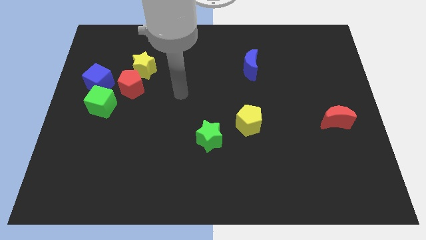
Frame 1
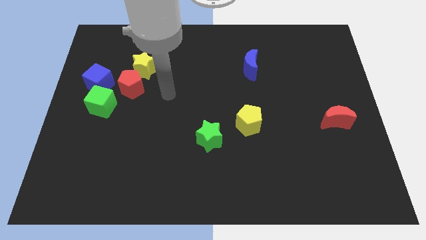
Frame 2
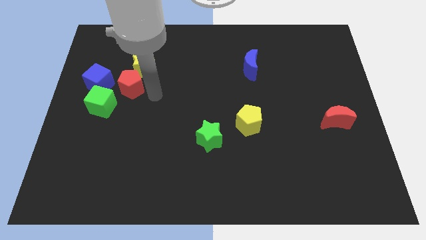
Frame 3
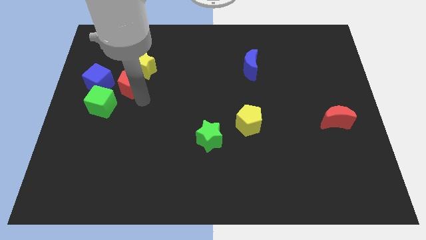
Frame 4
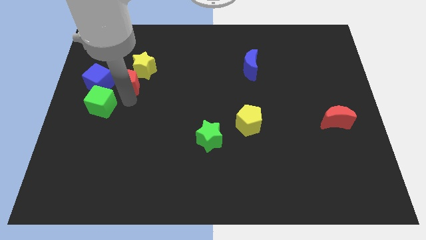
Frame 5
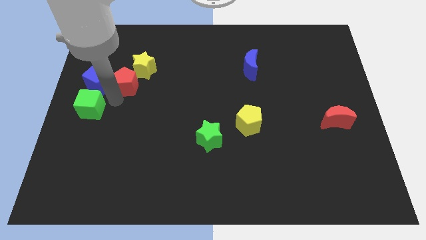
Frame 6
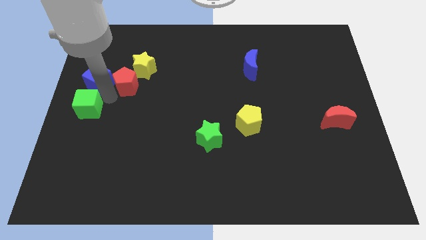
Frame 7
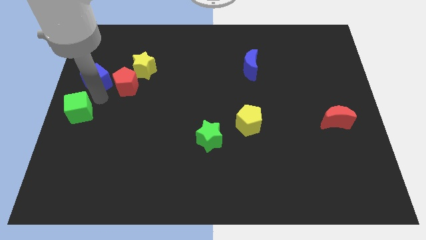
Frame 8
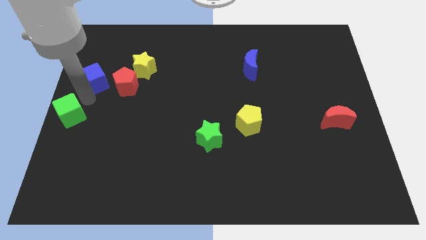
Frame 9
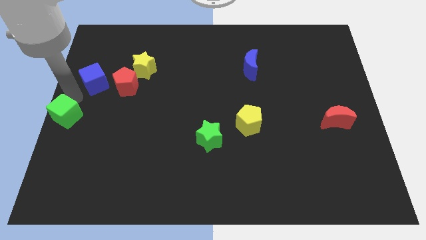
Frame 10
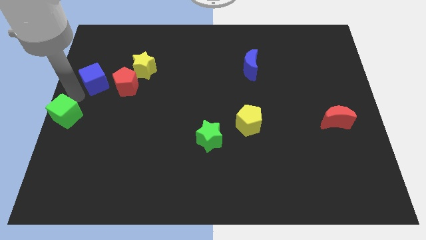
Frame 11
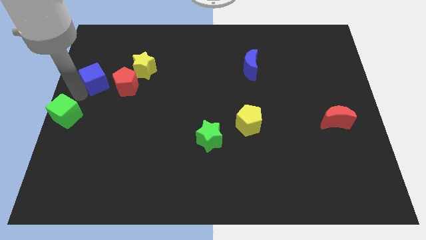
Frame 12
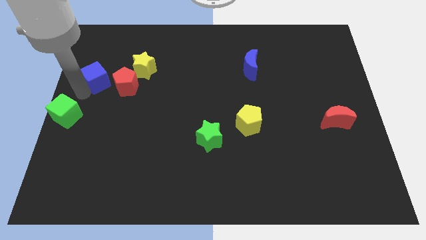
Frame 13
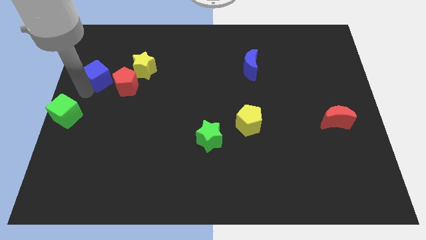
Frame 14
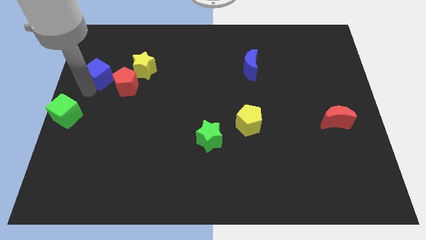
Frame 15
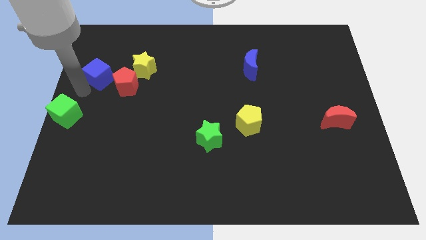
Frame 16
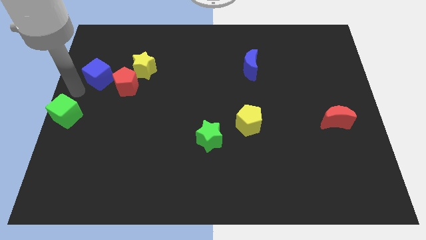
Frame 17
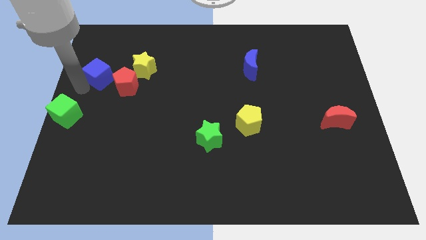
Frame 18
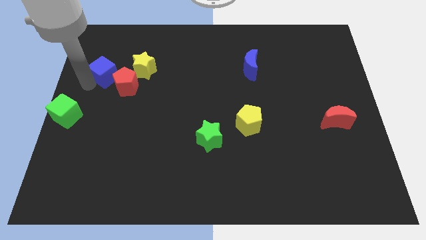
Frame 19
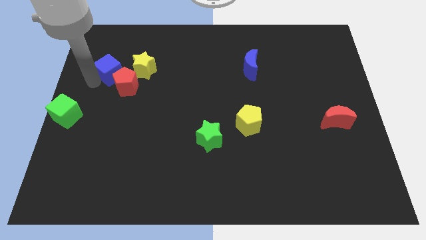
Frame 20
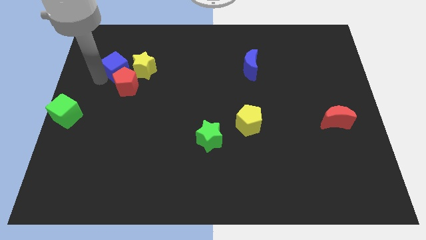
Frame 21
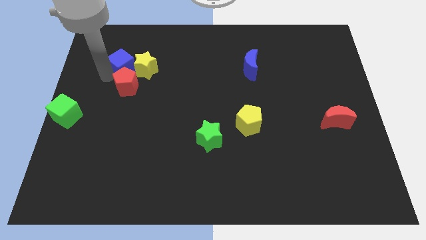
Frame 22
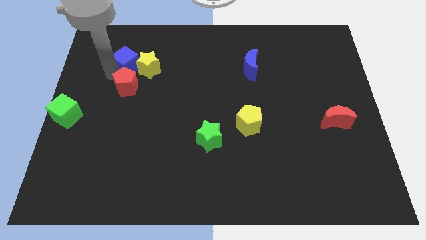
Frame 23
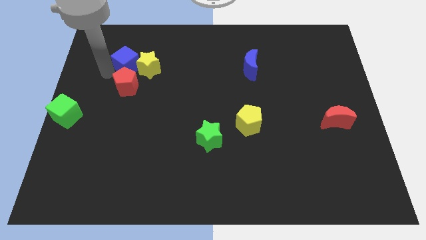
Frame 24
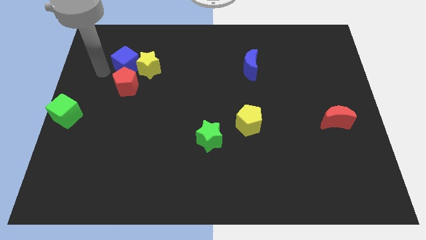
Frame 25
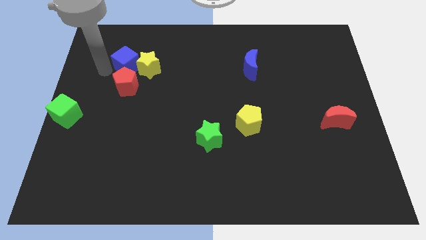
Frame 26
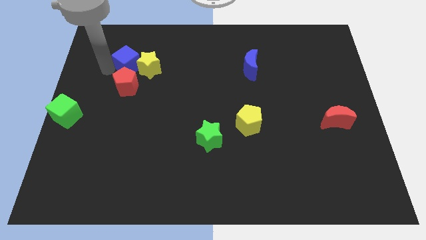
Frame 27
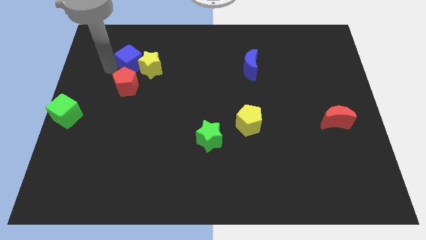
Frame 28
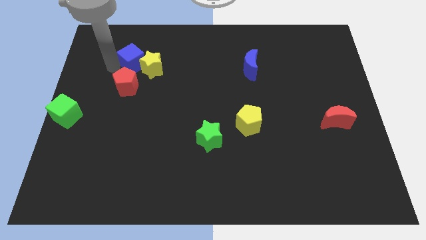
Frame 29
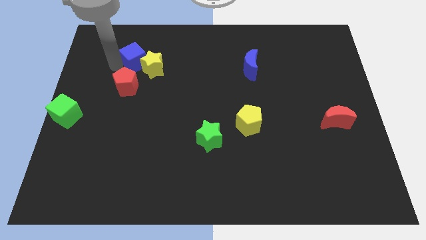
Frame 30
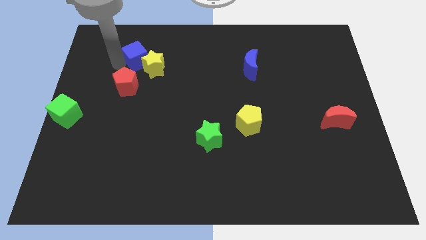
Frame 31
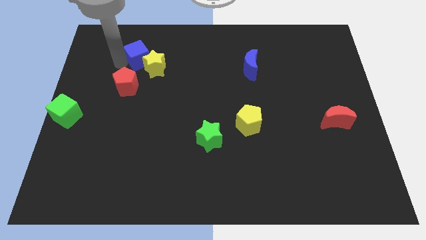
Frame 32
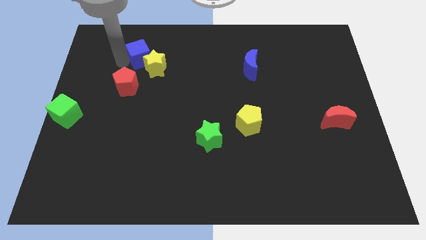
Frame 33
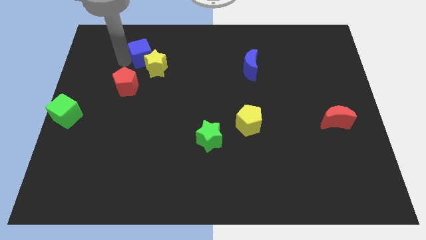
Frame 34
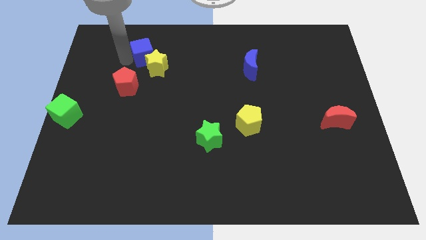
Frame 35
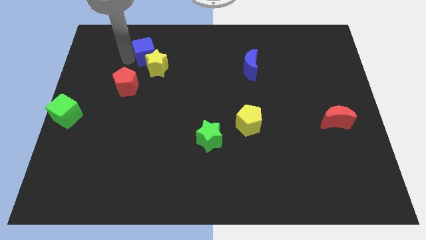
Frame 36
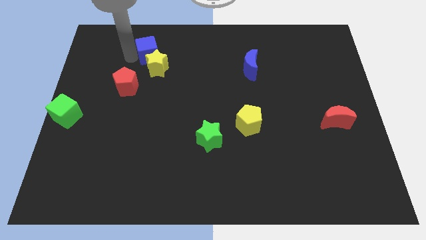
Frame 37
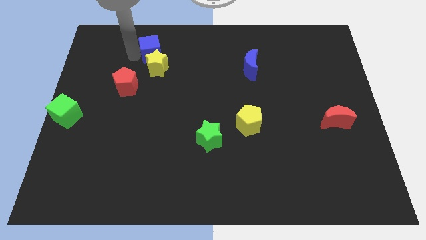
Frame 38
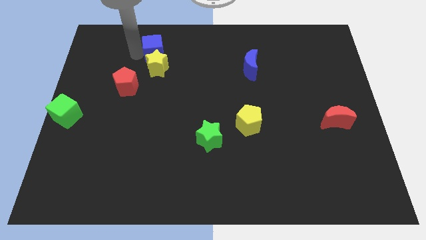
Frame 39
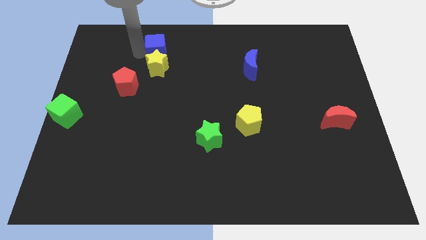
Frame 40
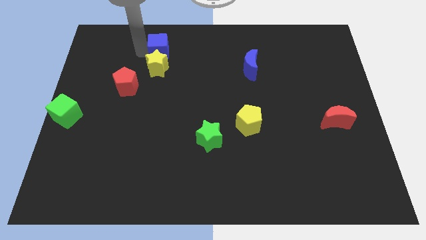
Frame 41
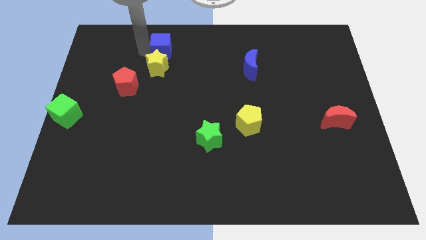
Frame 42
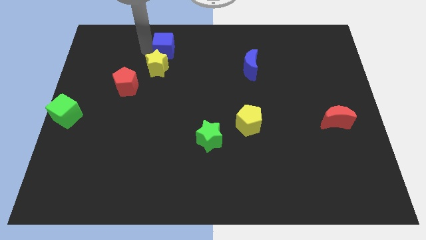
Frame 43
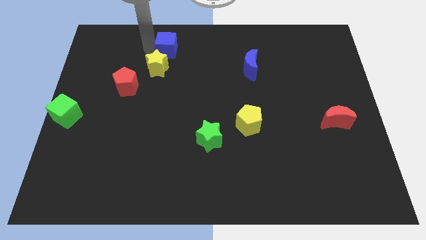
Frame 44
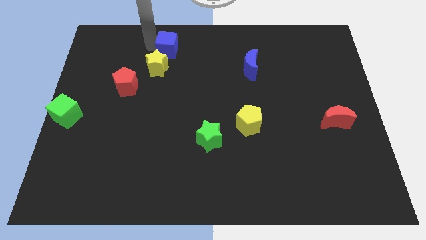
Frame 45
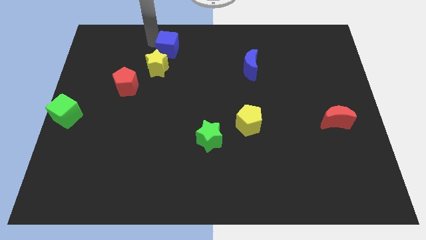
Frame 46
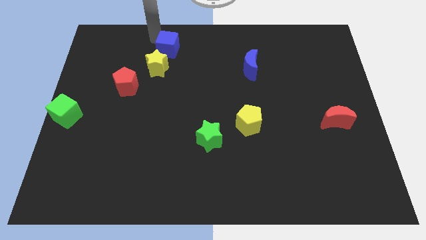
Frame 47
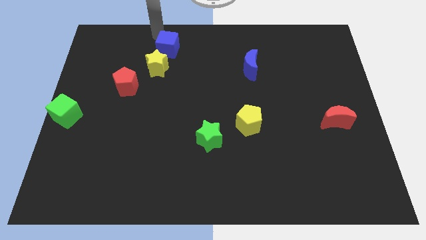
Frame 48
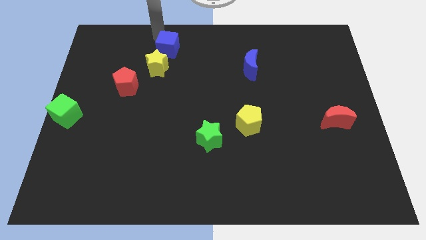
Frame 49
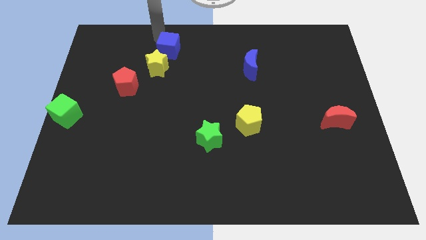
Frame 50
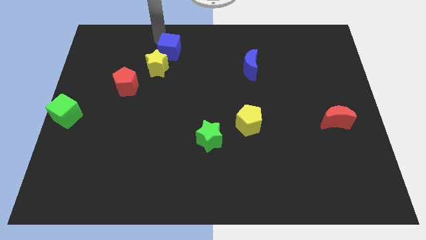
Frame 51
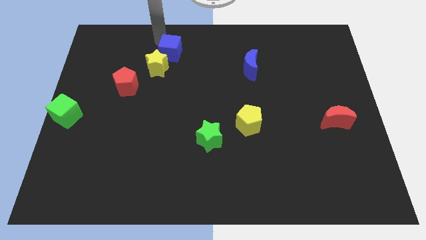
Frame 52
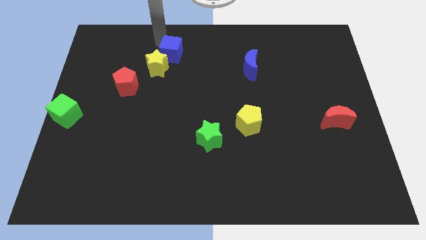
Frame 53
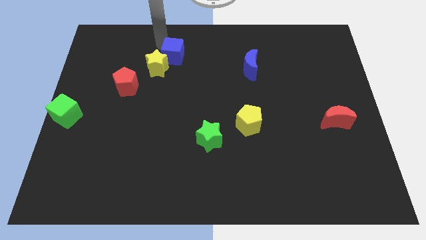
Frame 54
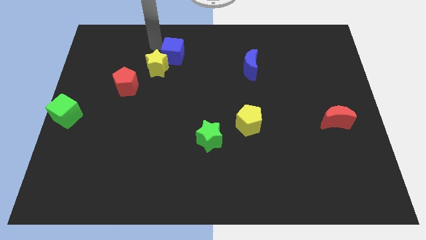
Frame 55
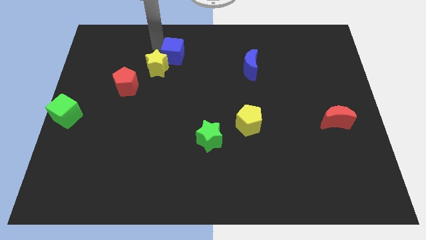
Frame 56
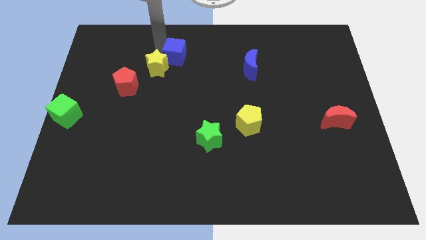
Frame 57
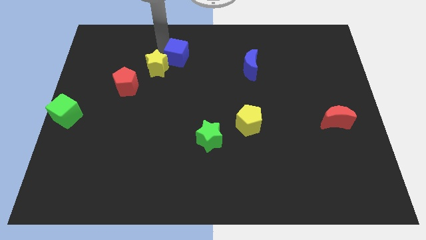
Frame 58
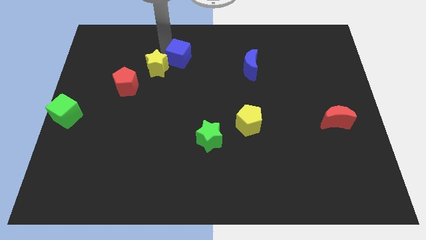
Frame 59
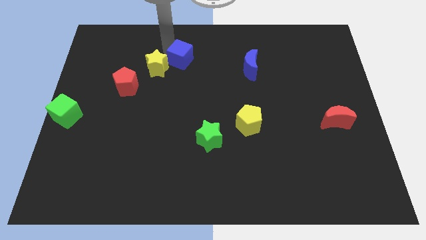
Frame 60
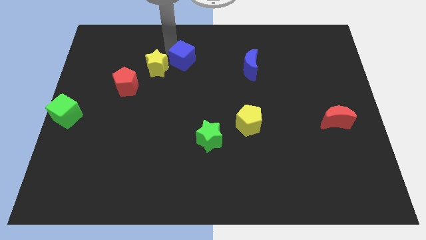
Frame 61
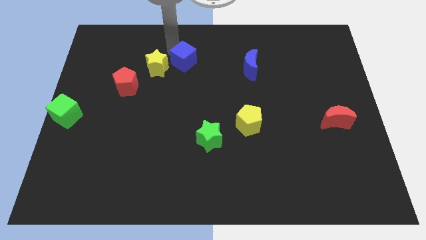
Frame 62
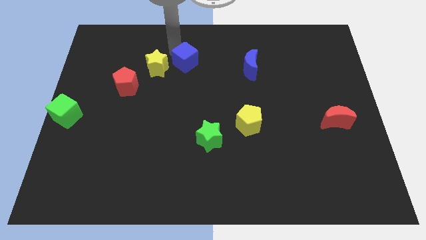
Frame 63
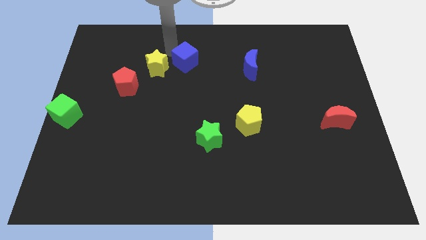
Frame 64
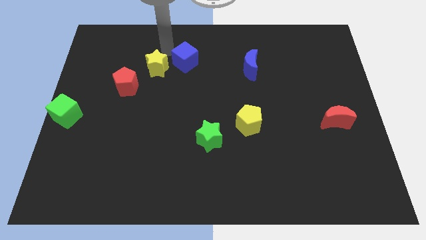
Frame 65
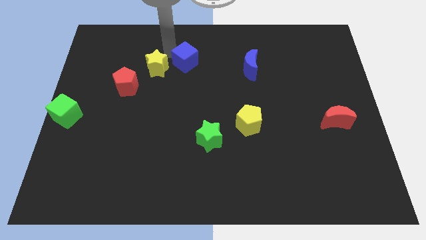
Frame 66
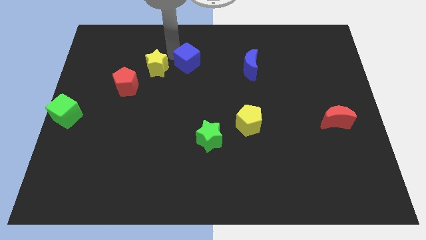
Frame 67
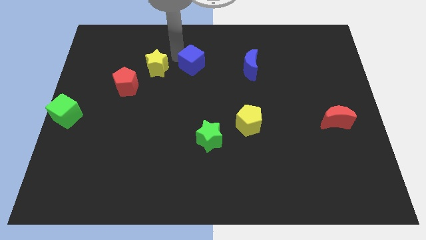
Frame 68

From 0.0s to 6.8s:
move the blue cube right

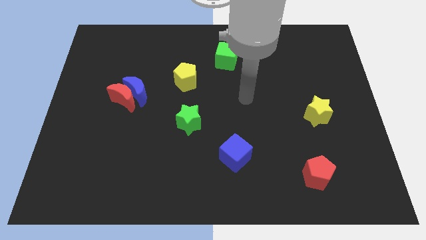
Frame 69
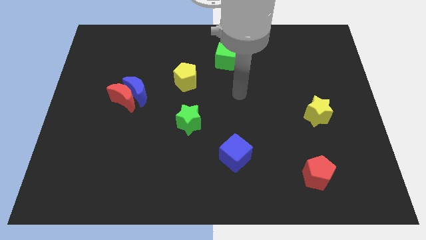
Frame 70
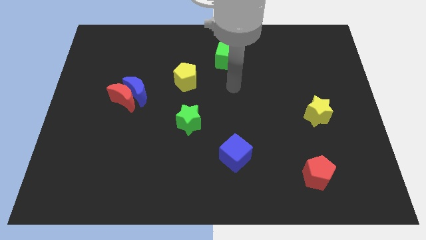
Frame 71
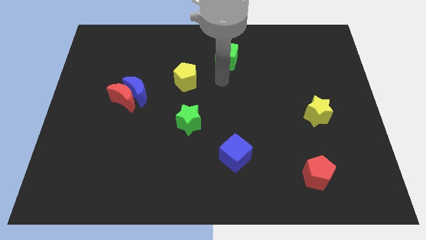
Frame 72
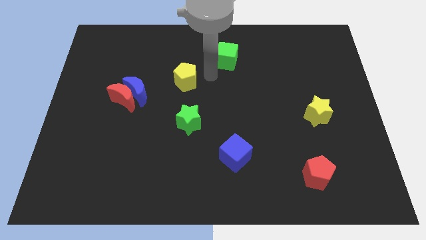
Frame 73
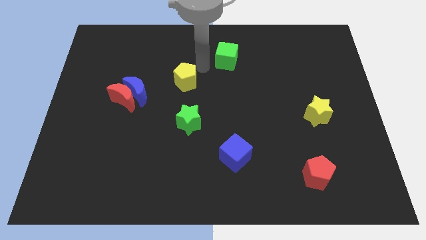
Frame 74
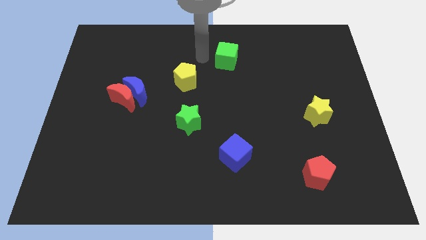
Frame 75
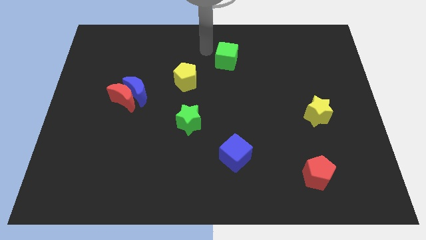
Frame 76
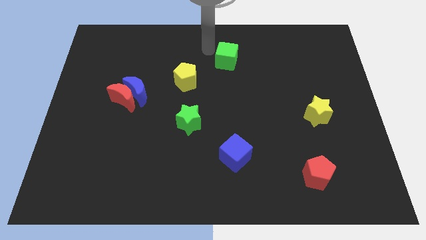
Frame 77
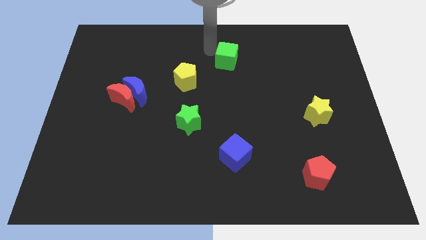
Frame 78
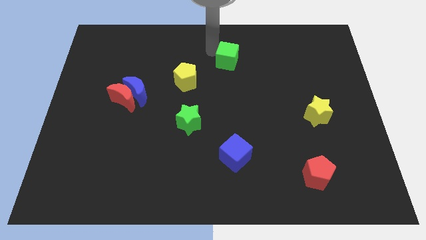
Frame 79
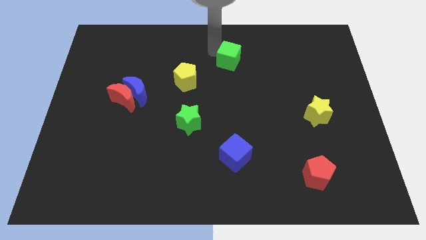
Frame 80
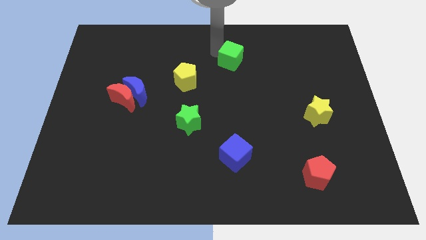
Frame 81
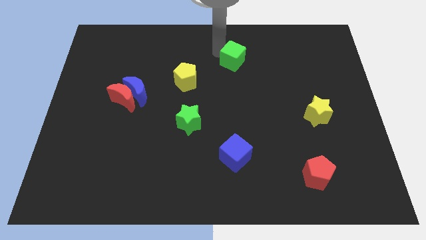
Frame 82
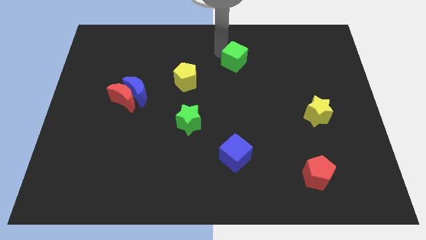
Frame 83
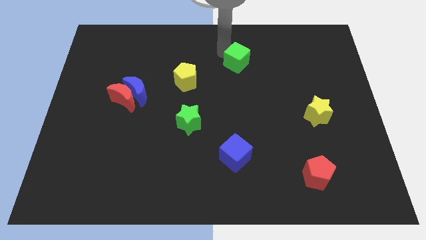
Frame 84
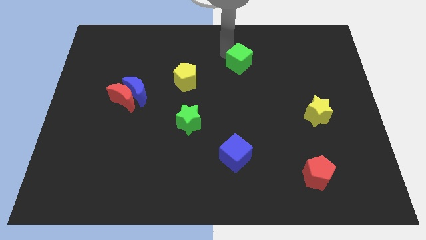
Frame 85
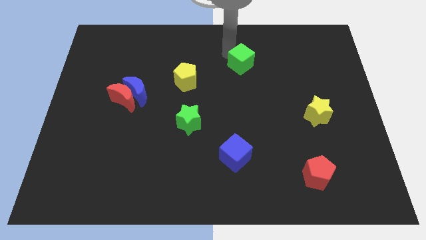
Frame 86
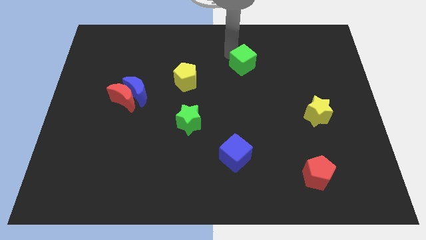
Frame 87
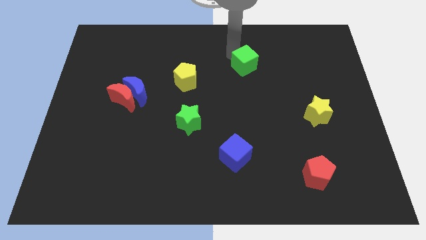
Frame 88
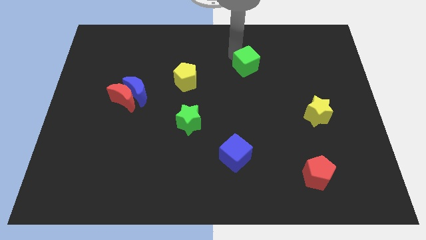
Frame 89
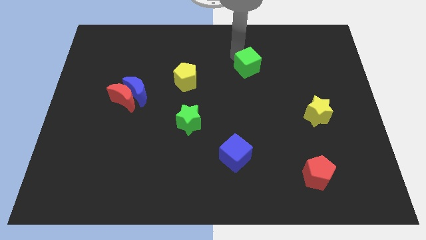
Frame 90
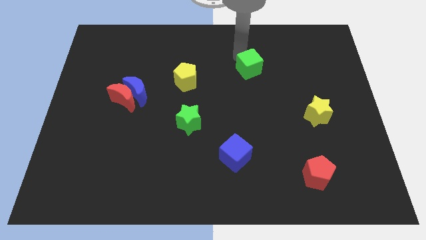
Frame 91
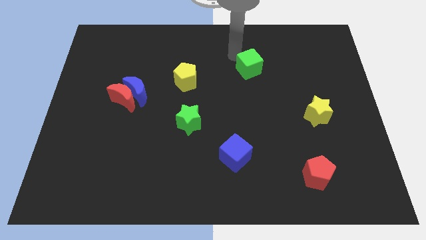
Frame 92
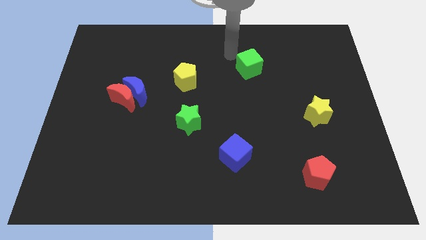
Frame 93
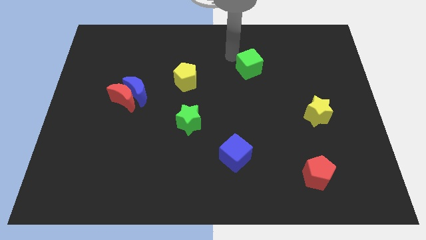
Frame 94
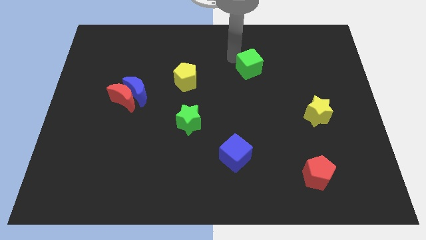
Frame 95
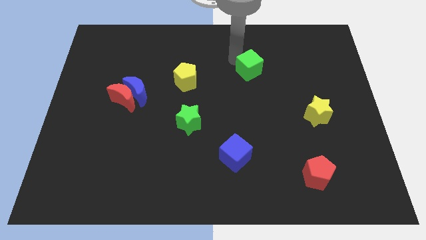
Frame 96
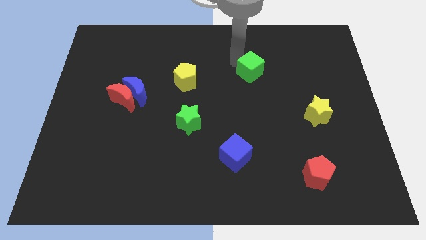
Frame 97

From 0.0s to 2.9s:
move the green cube down and to the right a little
